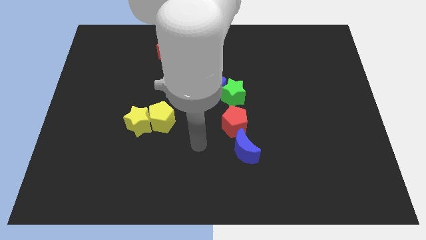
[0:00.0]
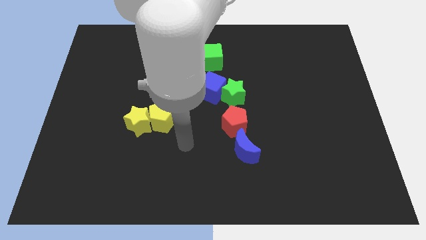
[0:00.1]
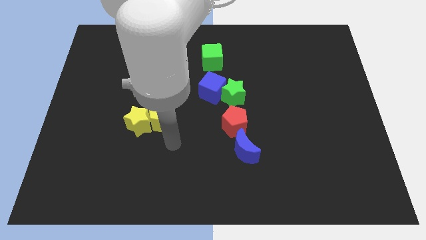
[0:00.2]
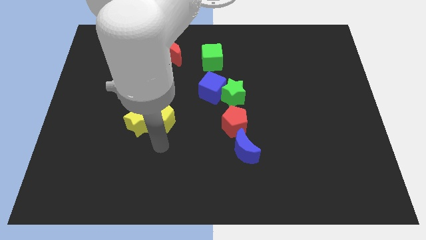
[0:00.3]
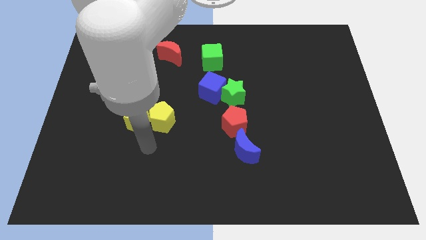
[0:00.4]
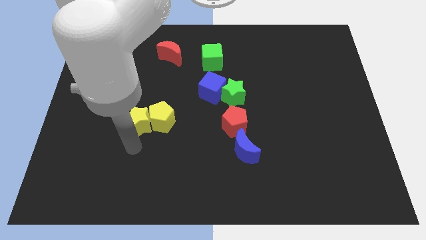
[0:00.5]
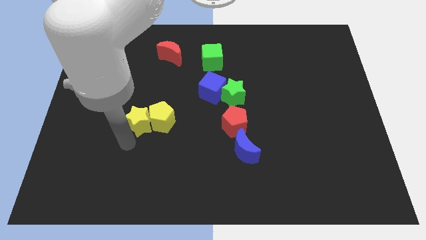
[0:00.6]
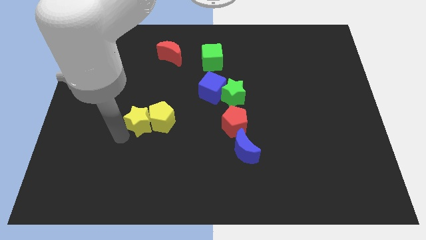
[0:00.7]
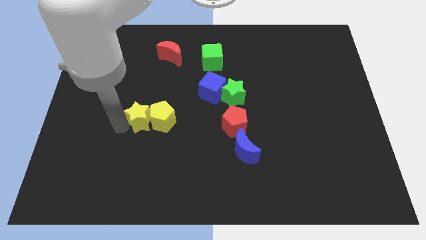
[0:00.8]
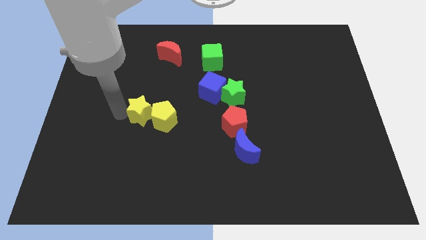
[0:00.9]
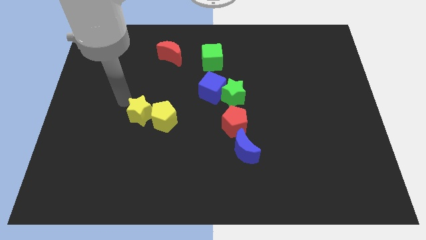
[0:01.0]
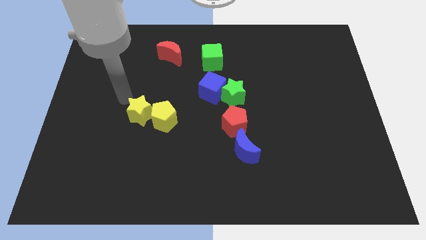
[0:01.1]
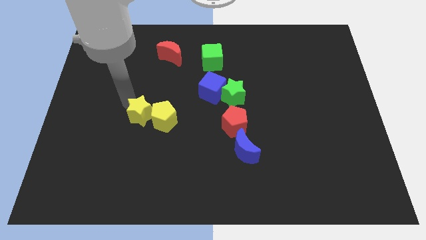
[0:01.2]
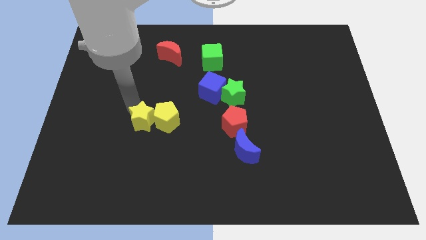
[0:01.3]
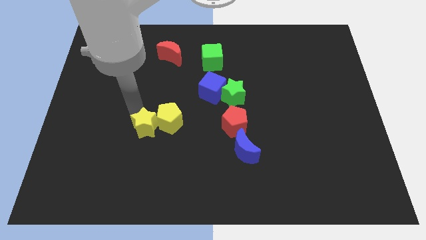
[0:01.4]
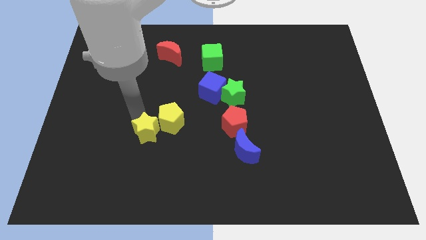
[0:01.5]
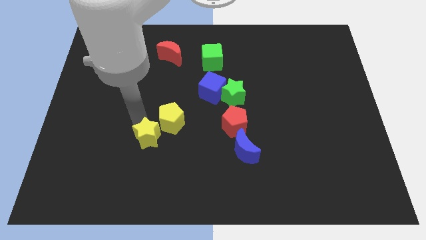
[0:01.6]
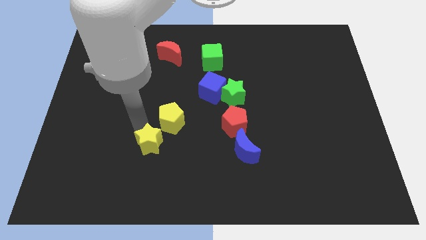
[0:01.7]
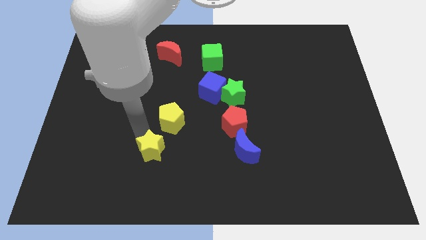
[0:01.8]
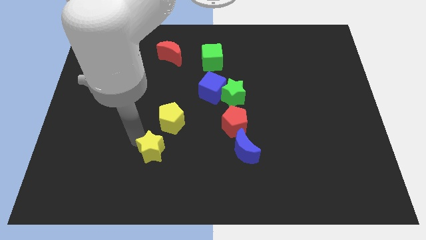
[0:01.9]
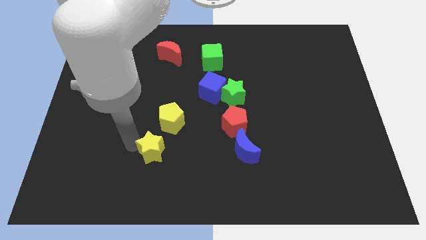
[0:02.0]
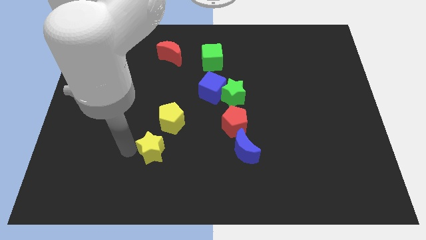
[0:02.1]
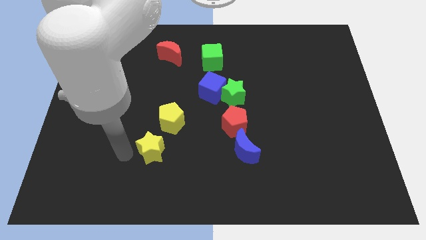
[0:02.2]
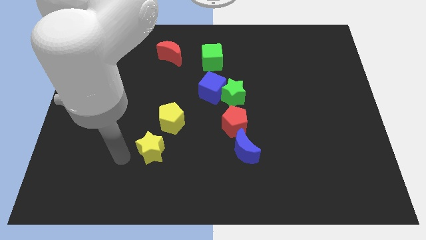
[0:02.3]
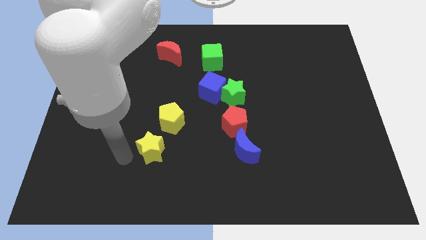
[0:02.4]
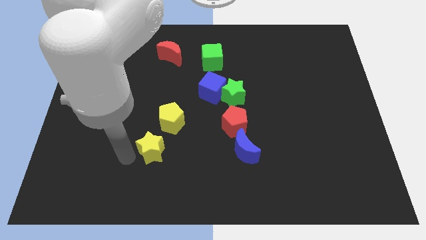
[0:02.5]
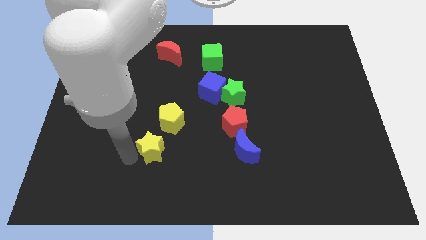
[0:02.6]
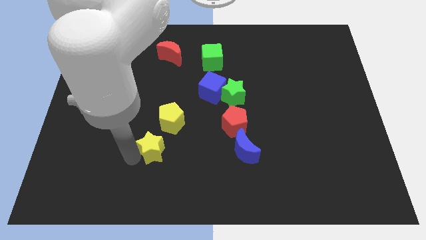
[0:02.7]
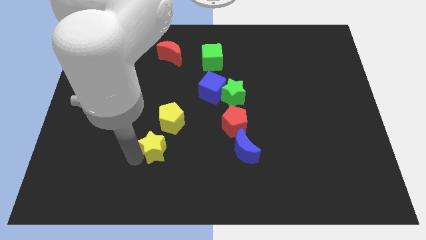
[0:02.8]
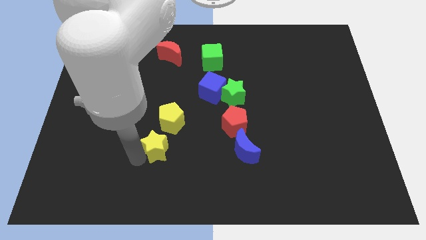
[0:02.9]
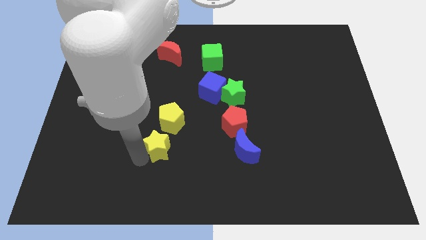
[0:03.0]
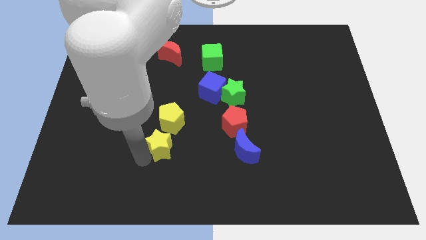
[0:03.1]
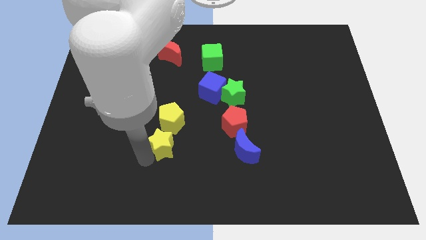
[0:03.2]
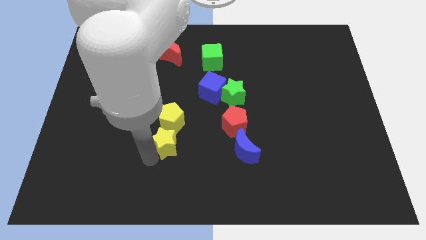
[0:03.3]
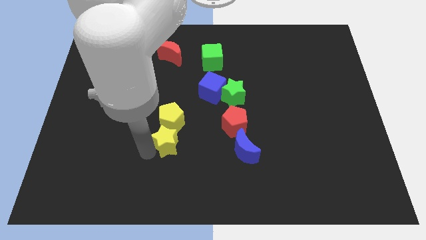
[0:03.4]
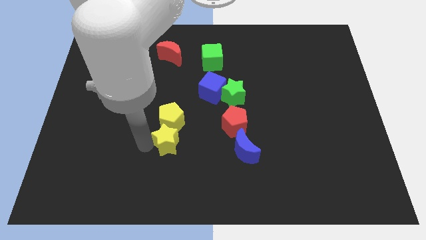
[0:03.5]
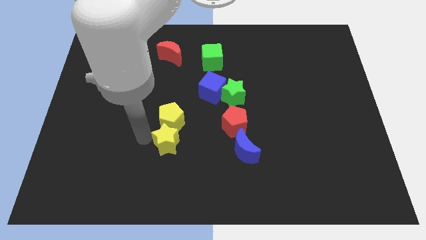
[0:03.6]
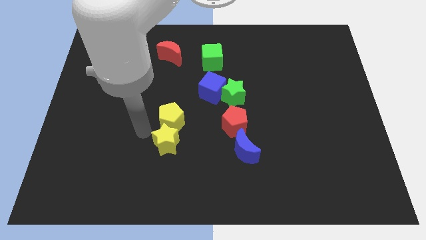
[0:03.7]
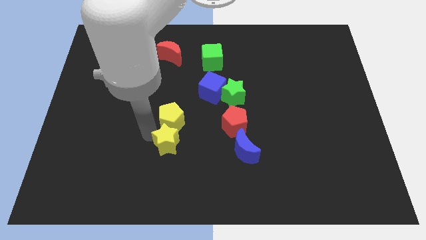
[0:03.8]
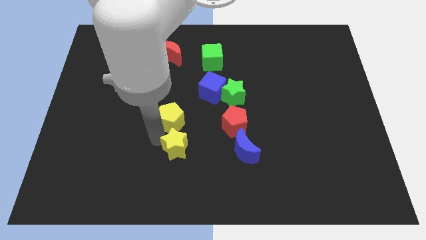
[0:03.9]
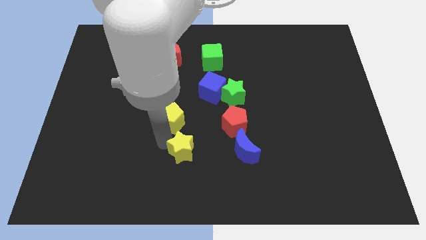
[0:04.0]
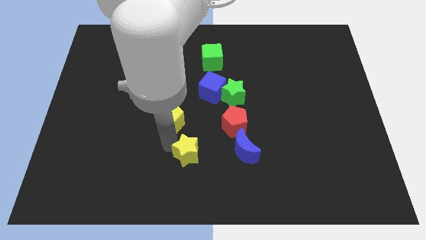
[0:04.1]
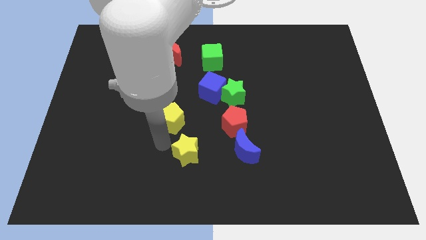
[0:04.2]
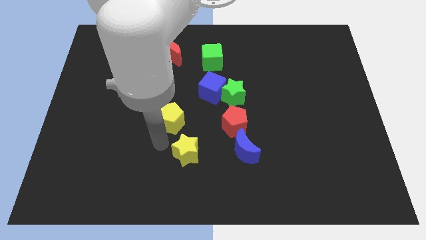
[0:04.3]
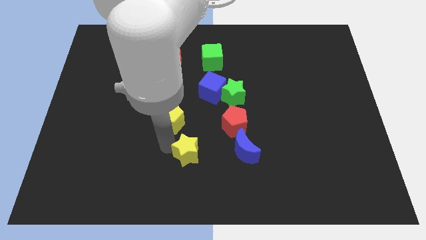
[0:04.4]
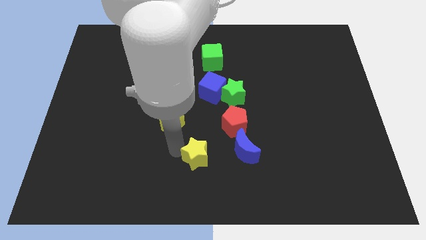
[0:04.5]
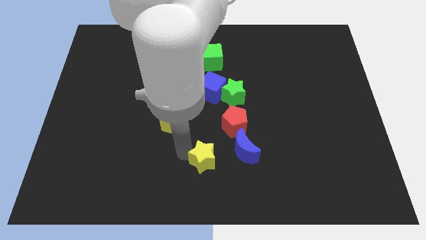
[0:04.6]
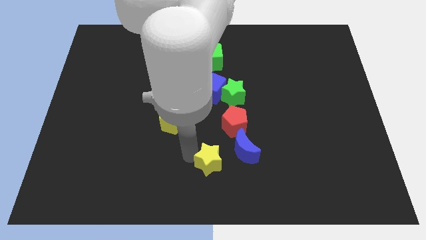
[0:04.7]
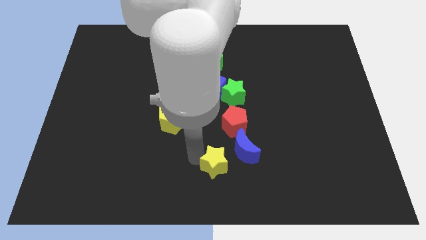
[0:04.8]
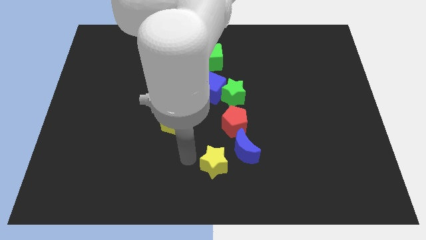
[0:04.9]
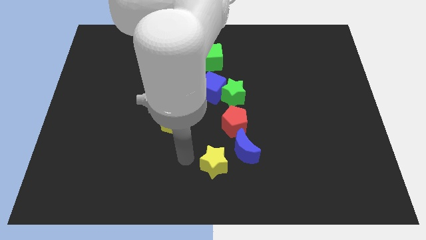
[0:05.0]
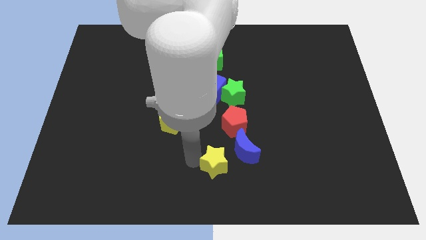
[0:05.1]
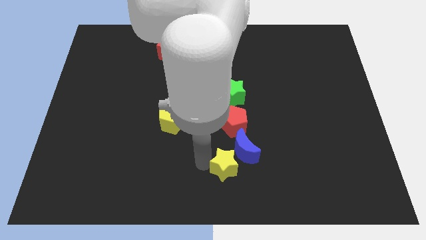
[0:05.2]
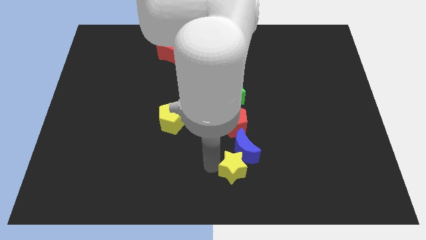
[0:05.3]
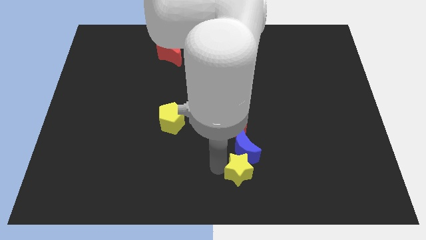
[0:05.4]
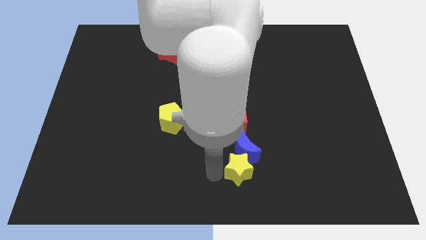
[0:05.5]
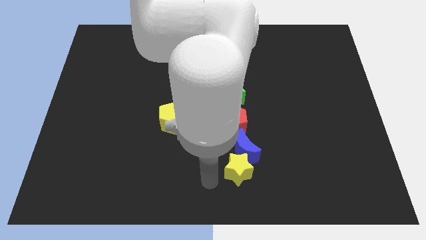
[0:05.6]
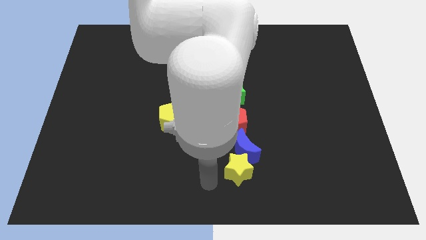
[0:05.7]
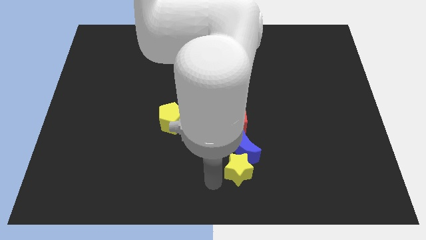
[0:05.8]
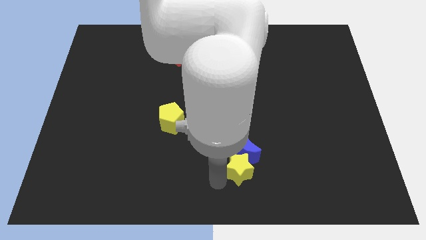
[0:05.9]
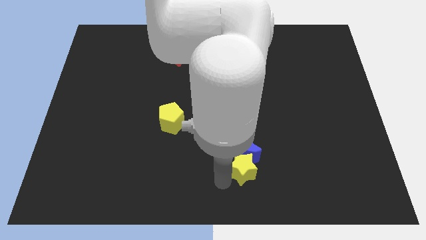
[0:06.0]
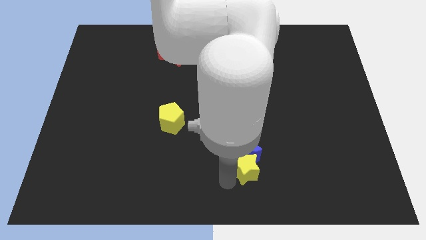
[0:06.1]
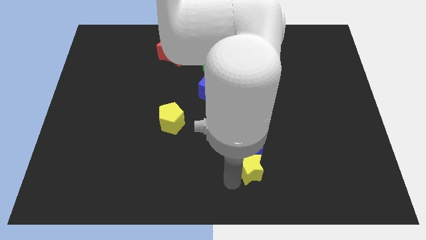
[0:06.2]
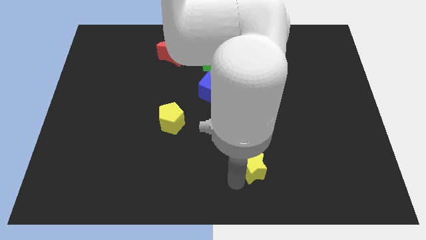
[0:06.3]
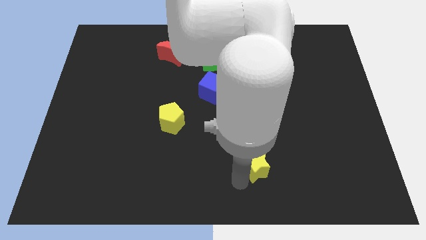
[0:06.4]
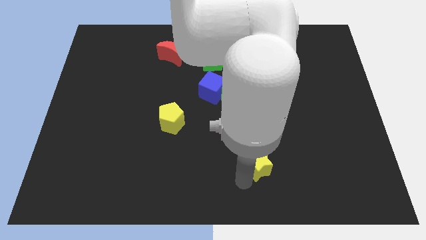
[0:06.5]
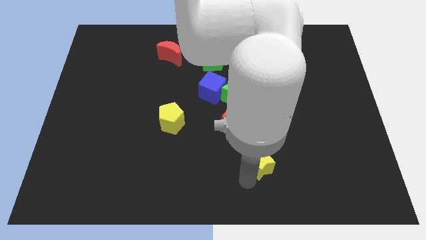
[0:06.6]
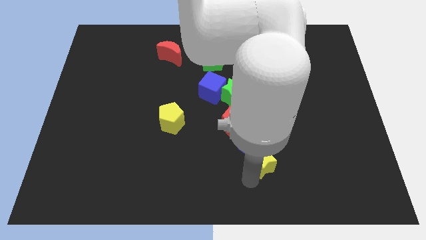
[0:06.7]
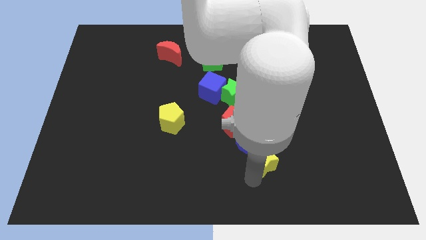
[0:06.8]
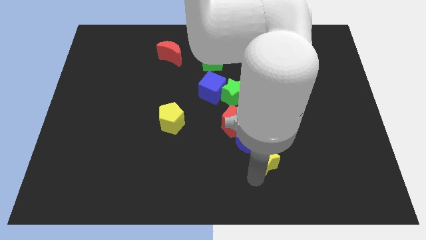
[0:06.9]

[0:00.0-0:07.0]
push the yellow star right of the blue moon
